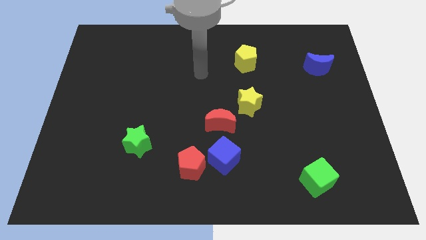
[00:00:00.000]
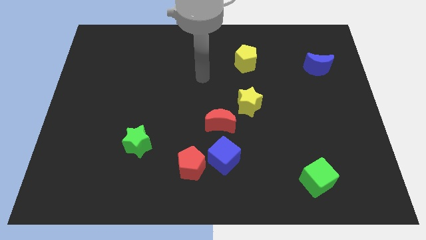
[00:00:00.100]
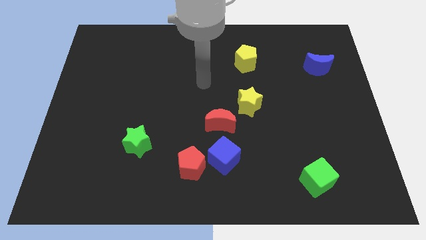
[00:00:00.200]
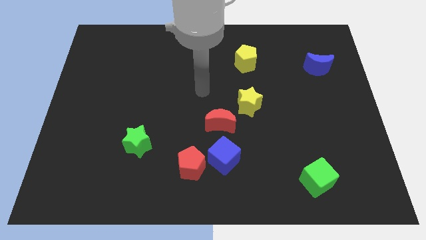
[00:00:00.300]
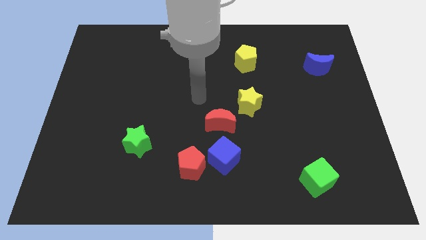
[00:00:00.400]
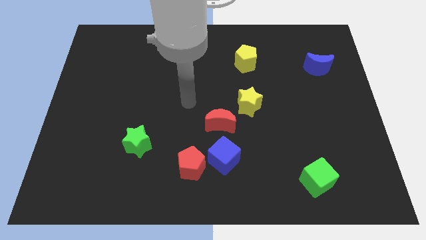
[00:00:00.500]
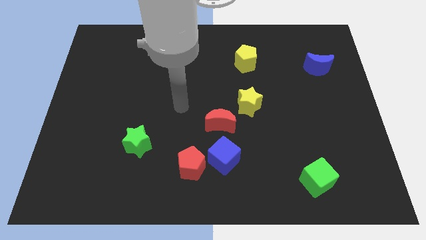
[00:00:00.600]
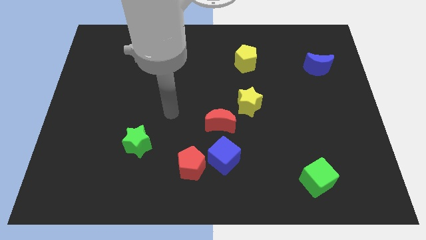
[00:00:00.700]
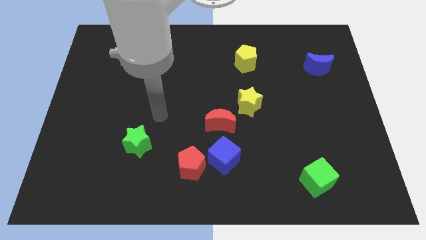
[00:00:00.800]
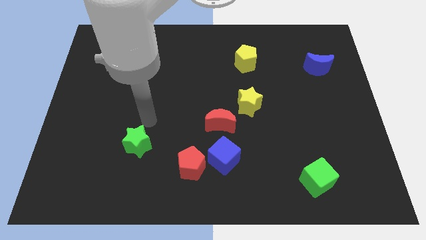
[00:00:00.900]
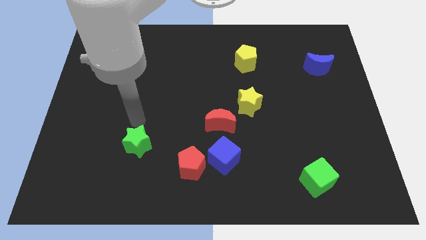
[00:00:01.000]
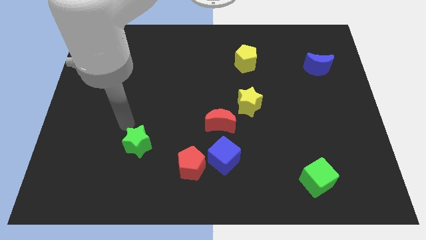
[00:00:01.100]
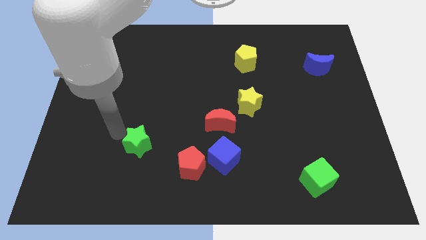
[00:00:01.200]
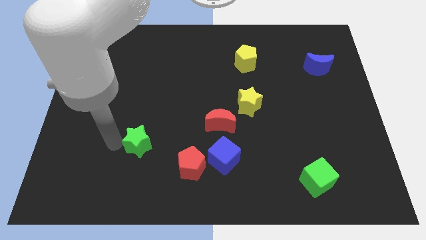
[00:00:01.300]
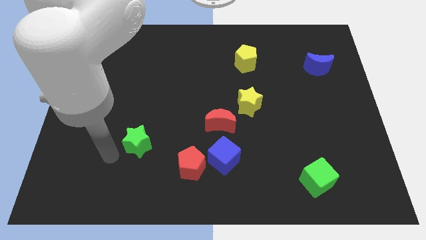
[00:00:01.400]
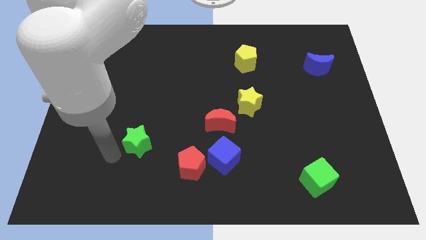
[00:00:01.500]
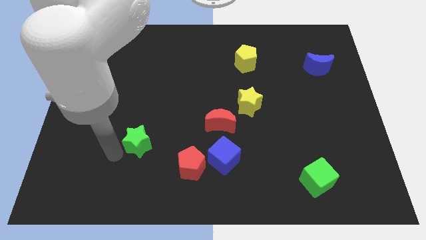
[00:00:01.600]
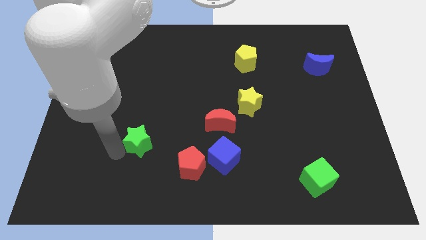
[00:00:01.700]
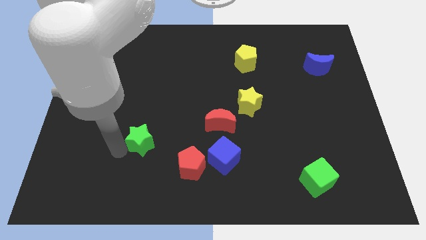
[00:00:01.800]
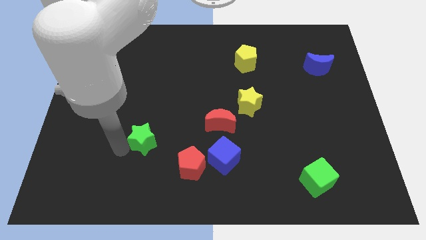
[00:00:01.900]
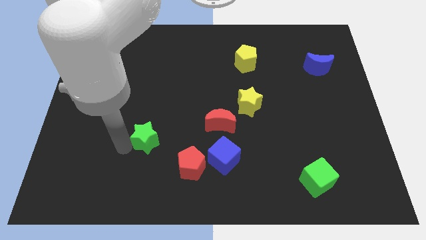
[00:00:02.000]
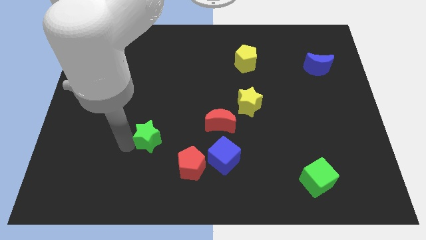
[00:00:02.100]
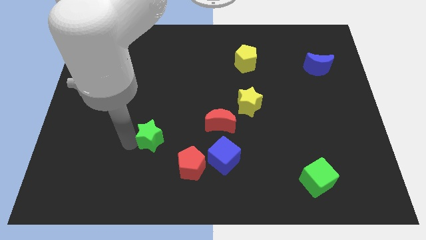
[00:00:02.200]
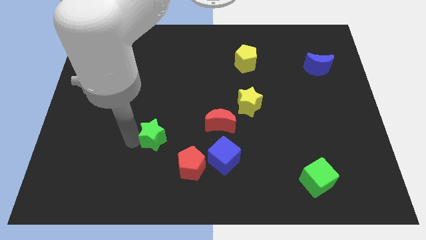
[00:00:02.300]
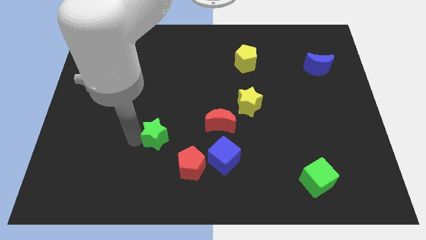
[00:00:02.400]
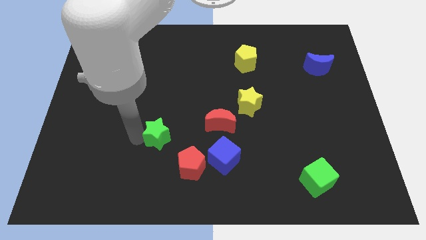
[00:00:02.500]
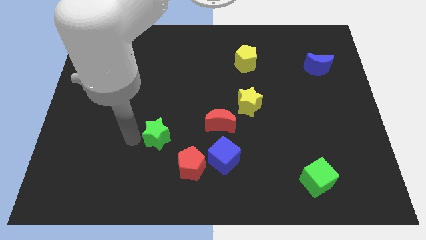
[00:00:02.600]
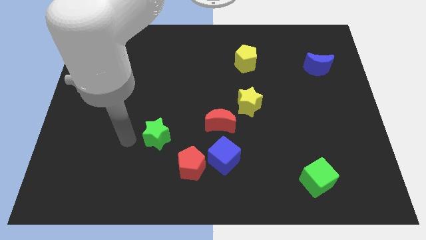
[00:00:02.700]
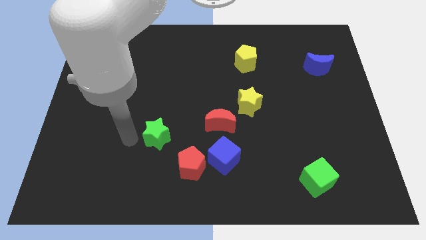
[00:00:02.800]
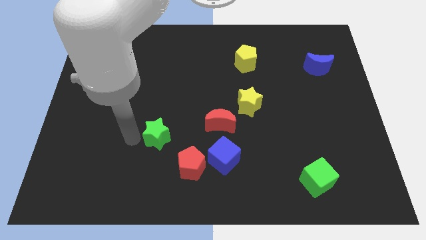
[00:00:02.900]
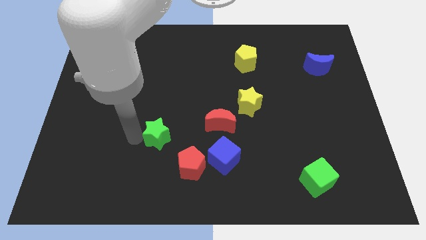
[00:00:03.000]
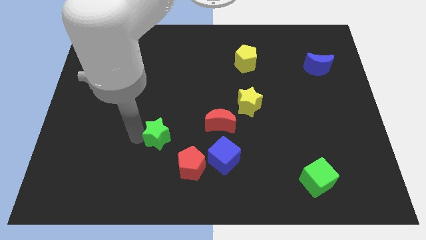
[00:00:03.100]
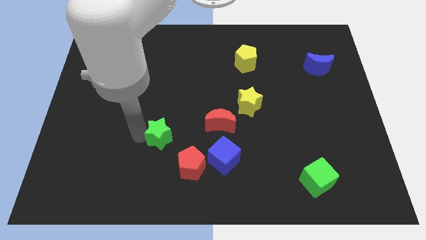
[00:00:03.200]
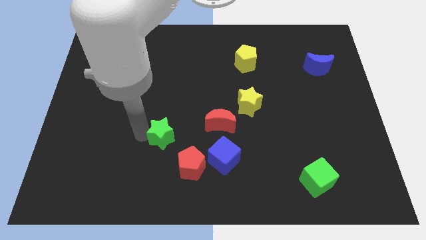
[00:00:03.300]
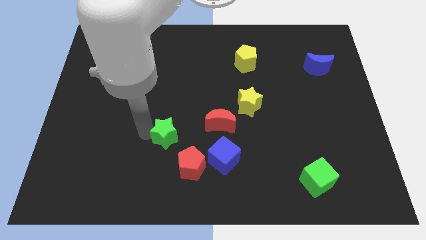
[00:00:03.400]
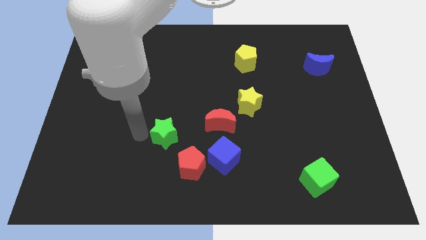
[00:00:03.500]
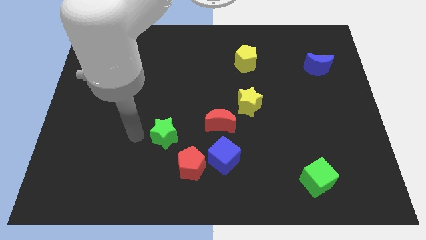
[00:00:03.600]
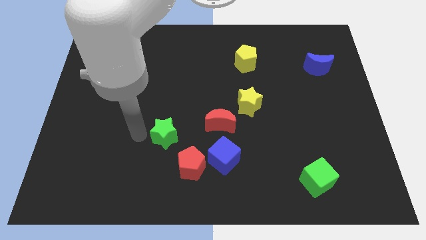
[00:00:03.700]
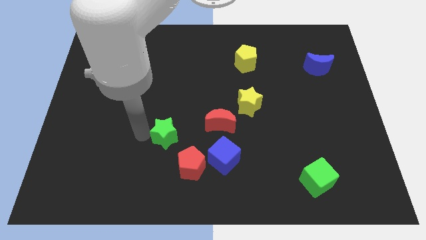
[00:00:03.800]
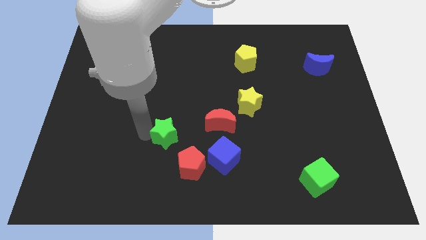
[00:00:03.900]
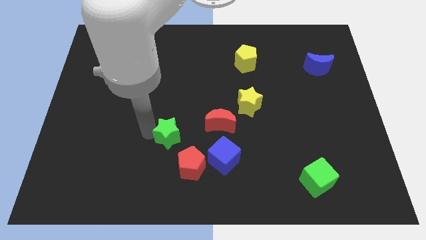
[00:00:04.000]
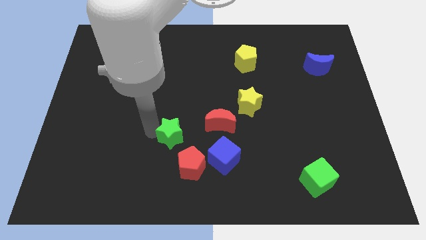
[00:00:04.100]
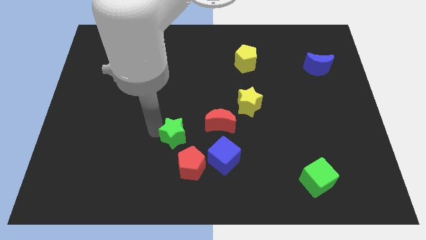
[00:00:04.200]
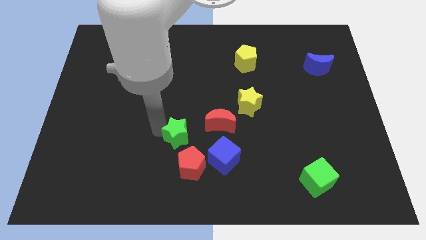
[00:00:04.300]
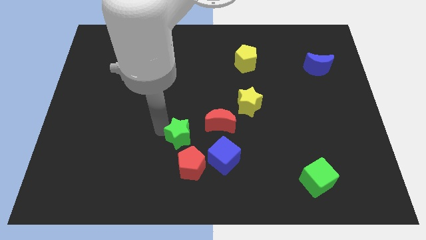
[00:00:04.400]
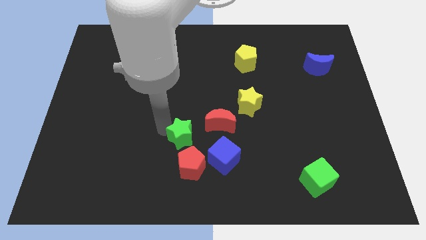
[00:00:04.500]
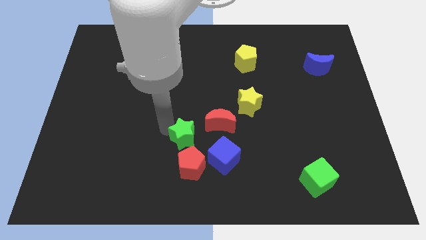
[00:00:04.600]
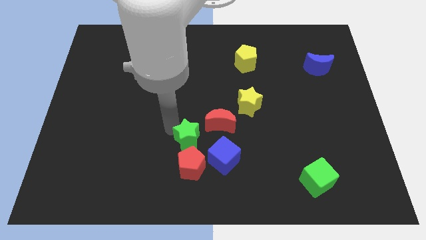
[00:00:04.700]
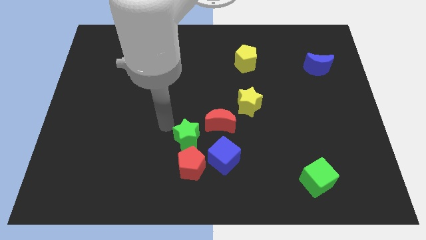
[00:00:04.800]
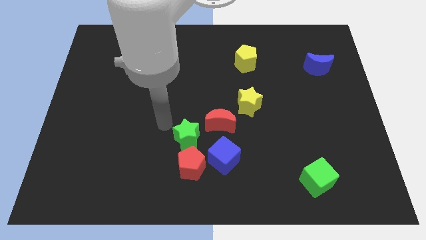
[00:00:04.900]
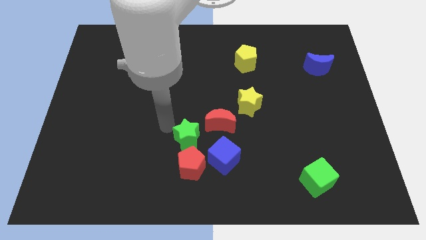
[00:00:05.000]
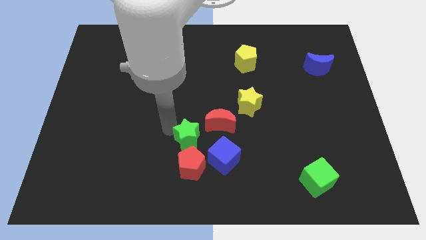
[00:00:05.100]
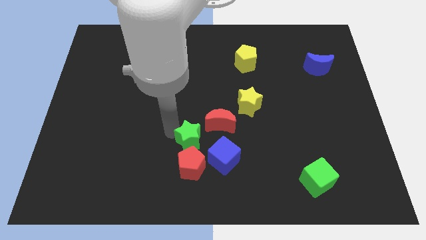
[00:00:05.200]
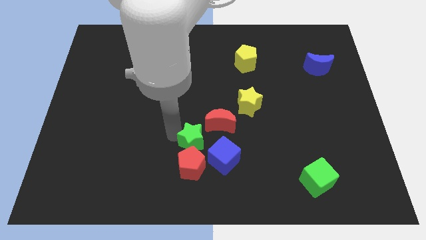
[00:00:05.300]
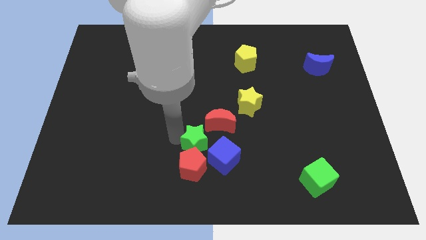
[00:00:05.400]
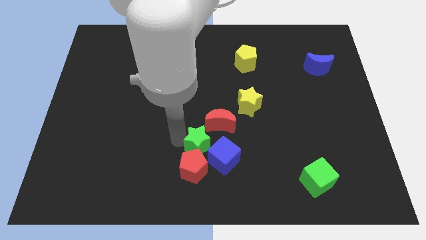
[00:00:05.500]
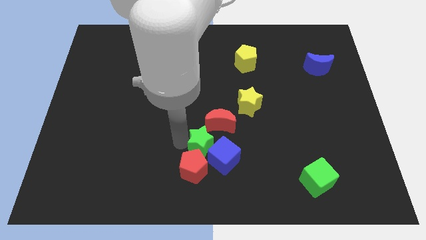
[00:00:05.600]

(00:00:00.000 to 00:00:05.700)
move the green star next to the blue cube

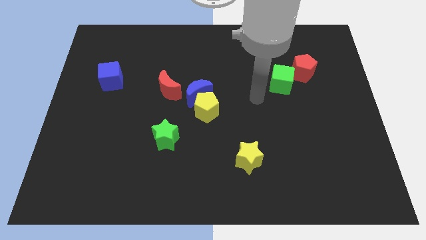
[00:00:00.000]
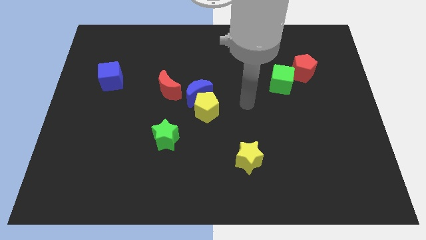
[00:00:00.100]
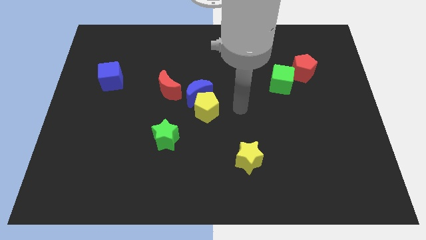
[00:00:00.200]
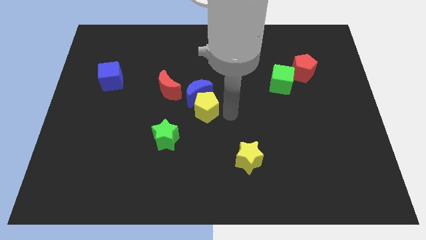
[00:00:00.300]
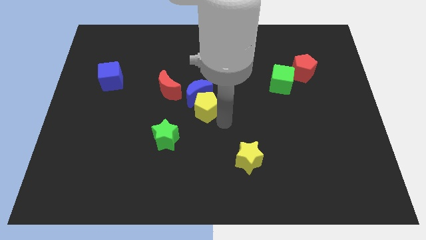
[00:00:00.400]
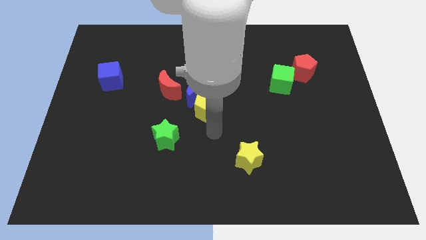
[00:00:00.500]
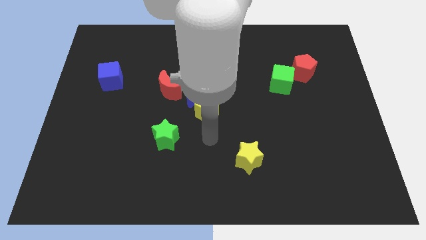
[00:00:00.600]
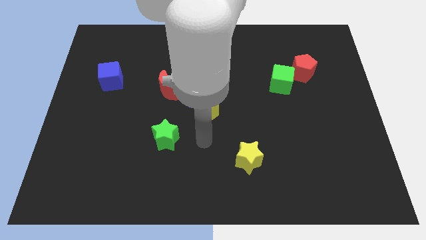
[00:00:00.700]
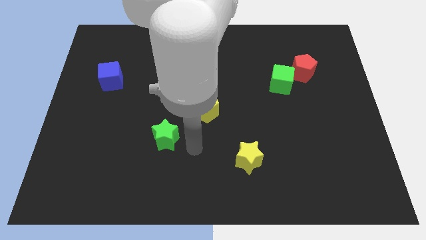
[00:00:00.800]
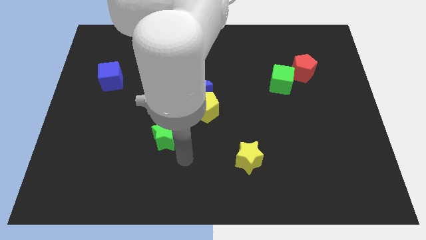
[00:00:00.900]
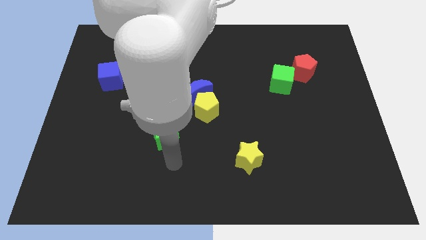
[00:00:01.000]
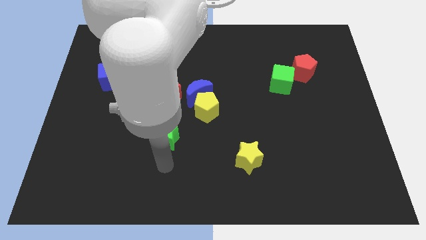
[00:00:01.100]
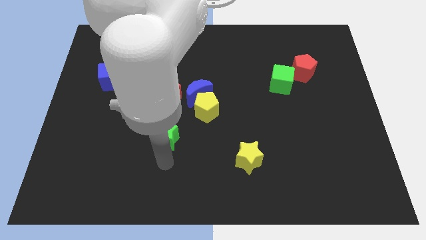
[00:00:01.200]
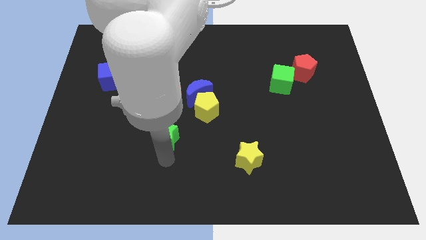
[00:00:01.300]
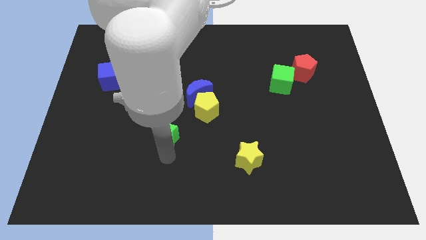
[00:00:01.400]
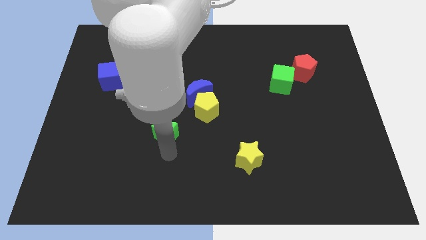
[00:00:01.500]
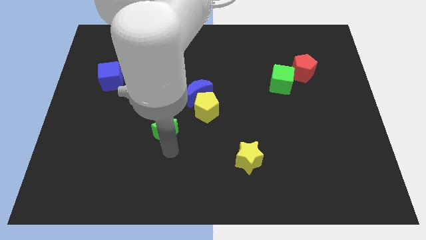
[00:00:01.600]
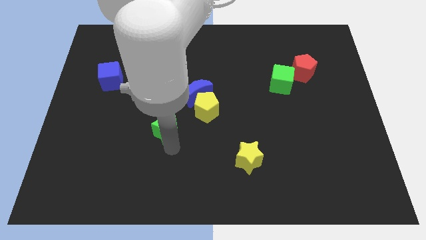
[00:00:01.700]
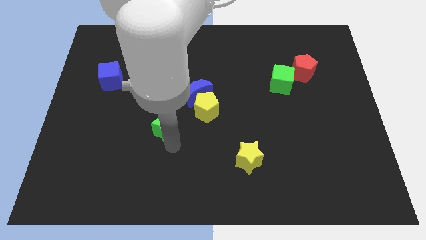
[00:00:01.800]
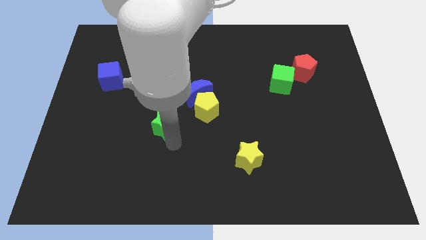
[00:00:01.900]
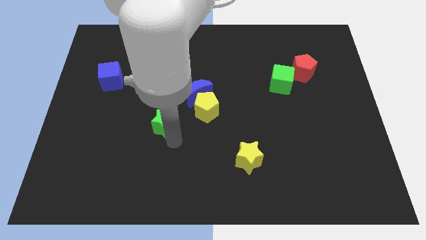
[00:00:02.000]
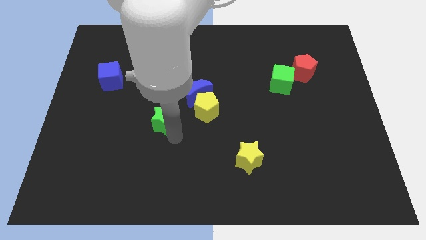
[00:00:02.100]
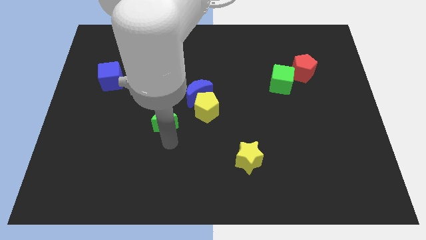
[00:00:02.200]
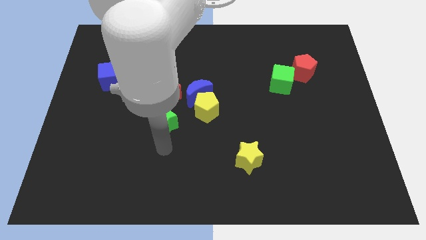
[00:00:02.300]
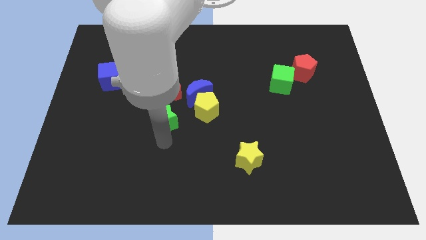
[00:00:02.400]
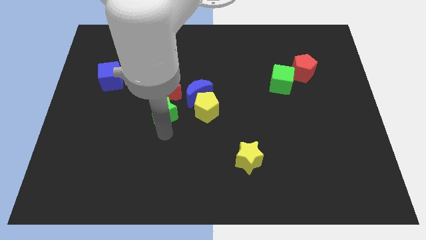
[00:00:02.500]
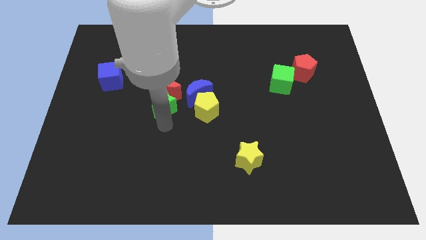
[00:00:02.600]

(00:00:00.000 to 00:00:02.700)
move the green star next to the red moon
